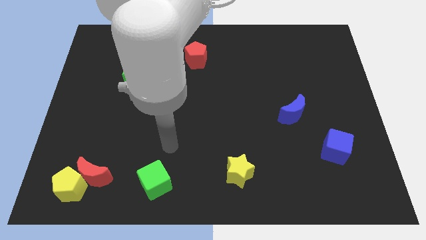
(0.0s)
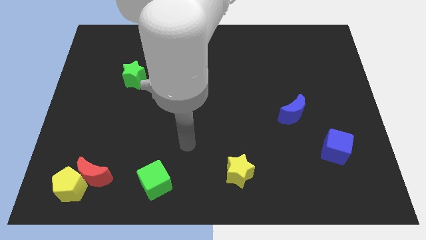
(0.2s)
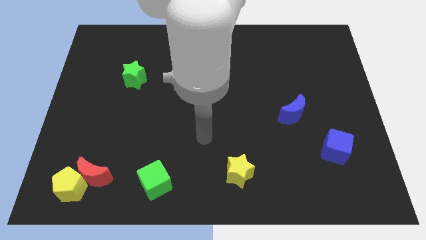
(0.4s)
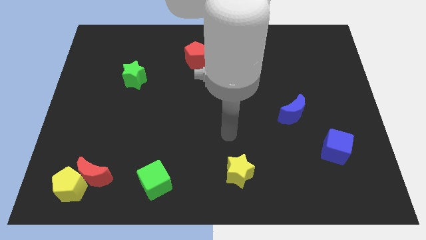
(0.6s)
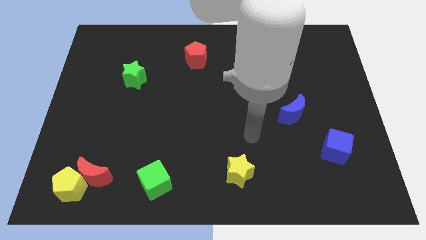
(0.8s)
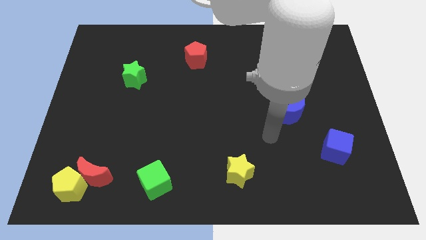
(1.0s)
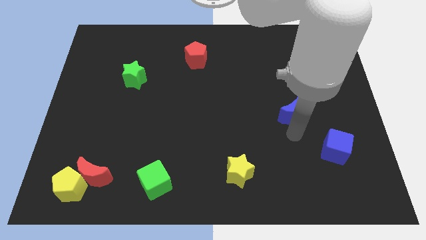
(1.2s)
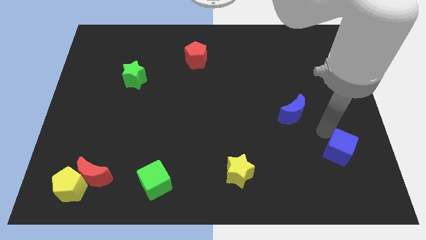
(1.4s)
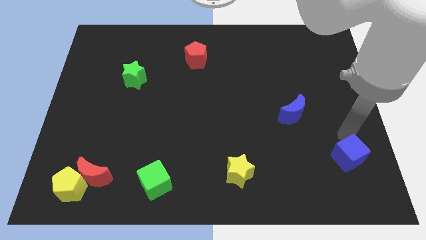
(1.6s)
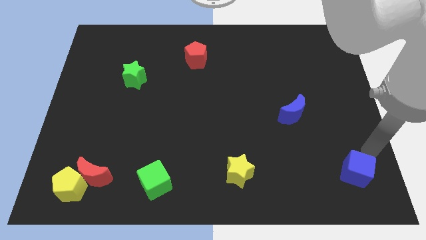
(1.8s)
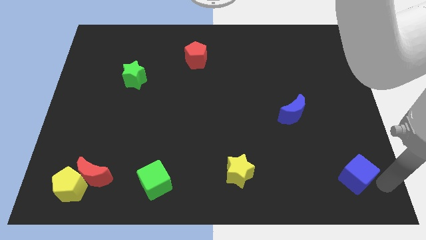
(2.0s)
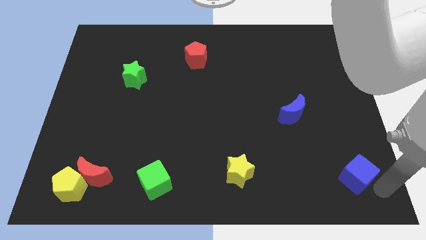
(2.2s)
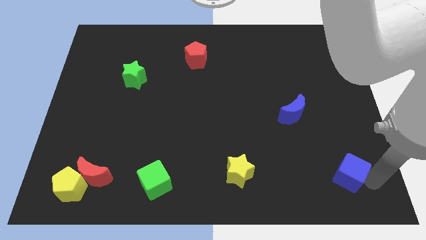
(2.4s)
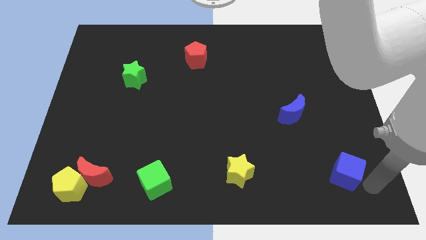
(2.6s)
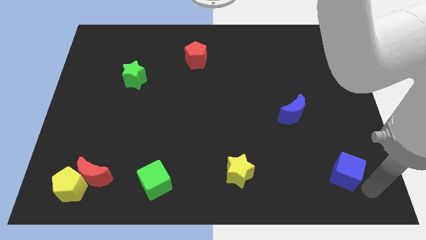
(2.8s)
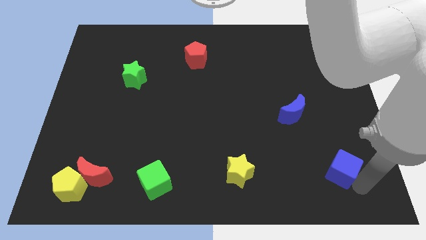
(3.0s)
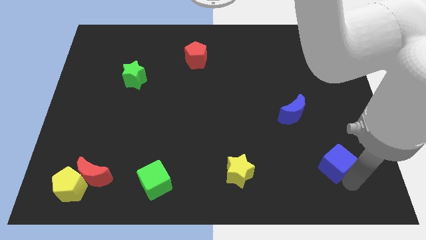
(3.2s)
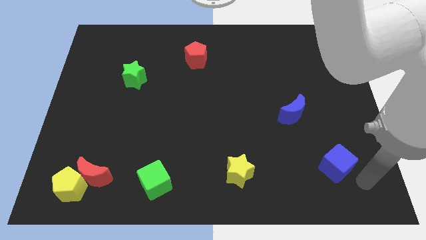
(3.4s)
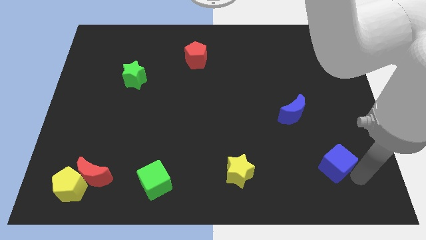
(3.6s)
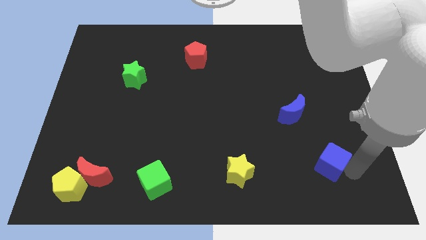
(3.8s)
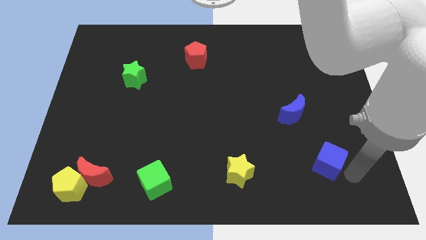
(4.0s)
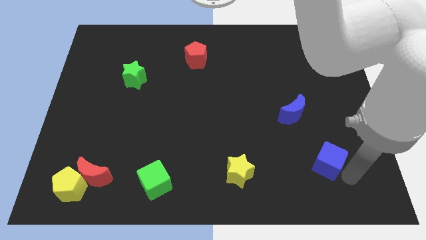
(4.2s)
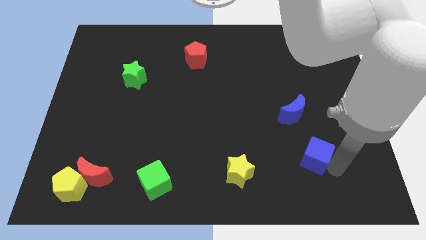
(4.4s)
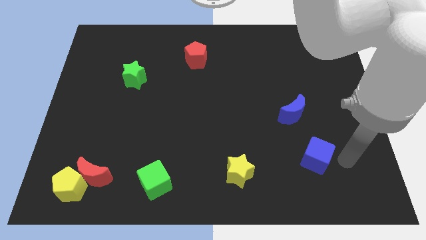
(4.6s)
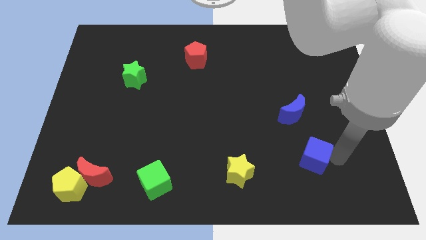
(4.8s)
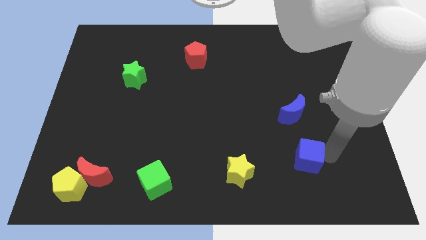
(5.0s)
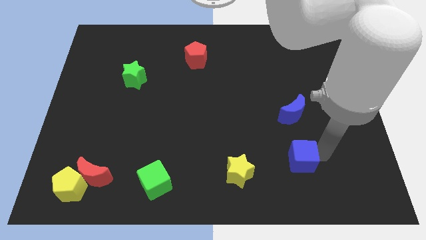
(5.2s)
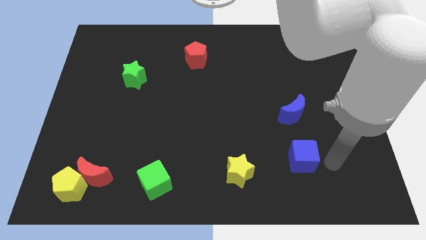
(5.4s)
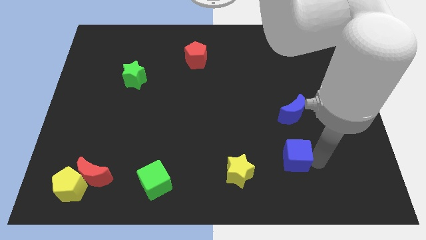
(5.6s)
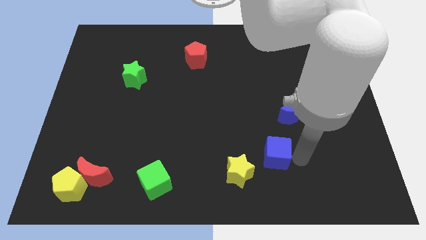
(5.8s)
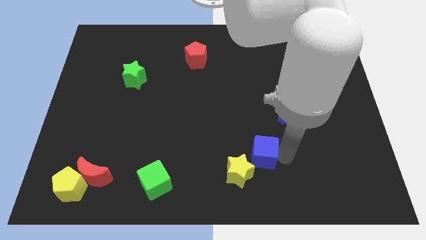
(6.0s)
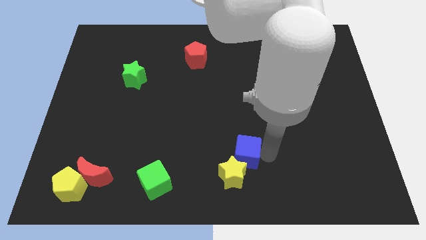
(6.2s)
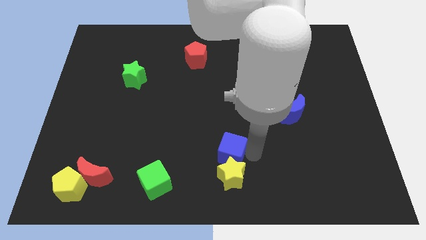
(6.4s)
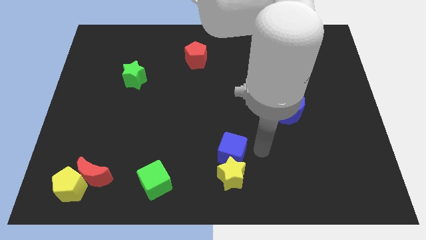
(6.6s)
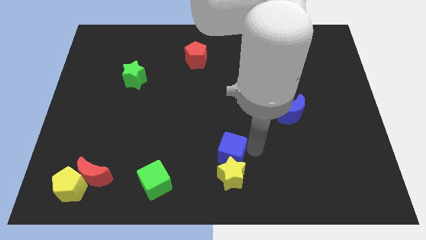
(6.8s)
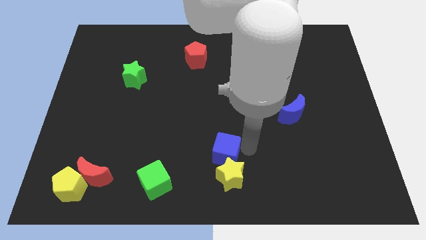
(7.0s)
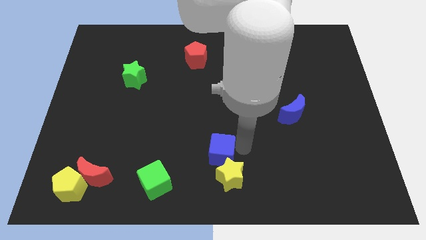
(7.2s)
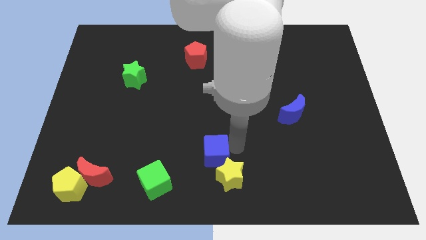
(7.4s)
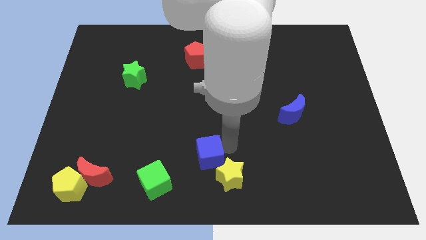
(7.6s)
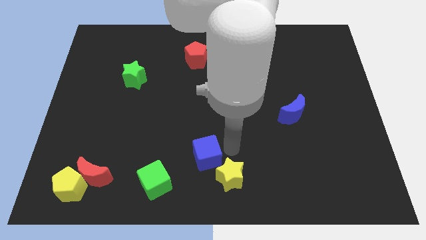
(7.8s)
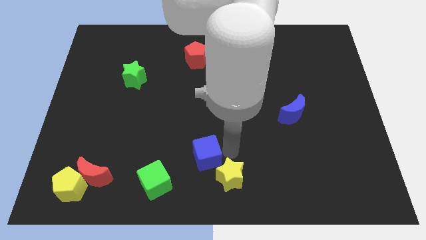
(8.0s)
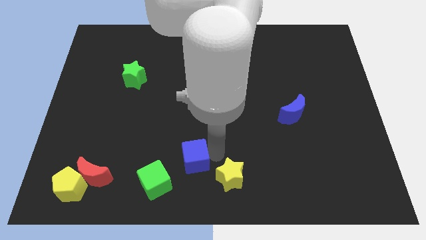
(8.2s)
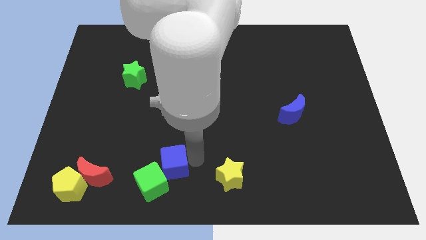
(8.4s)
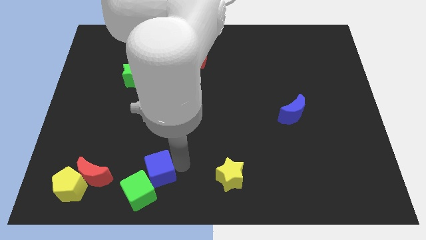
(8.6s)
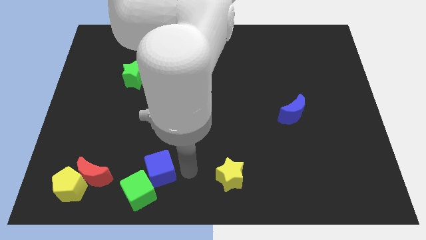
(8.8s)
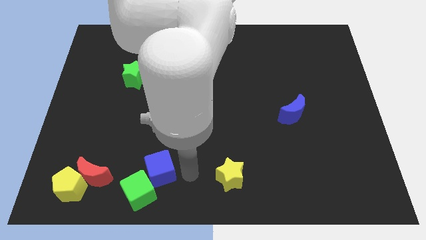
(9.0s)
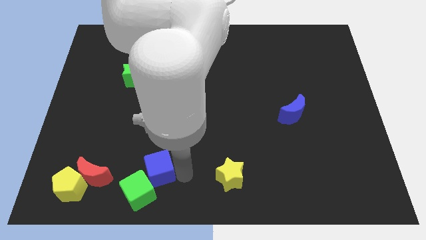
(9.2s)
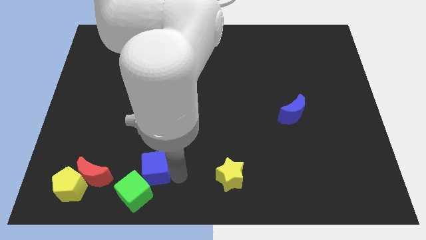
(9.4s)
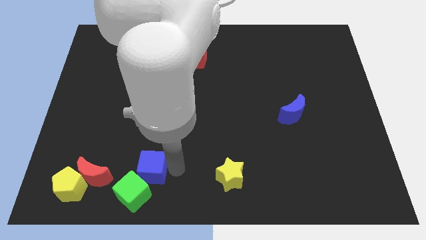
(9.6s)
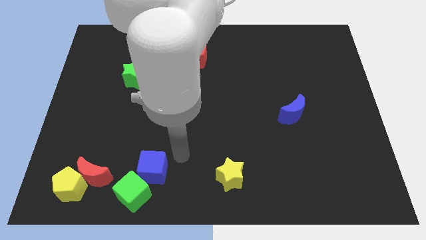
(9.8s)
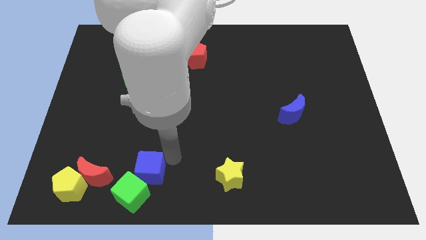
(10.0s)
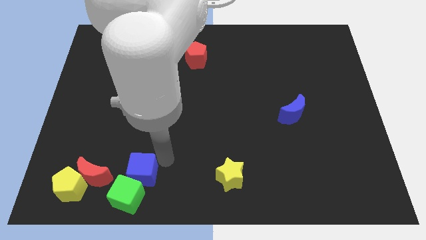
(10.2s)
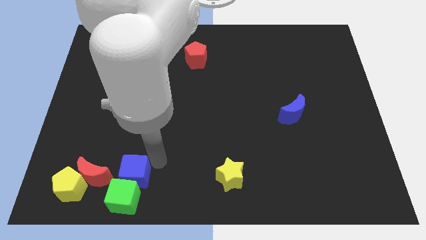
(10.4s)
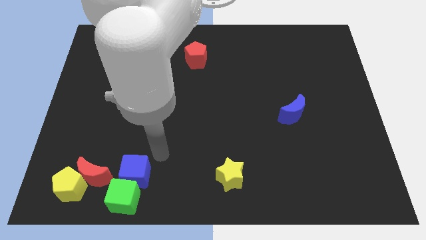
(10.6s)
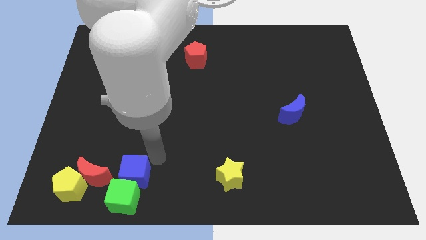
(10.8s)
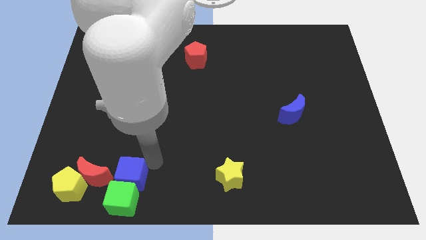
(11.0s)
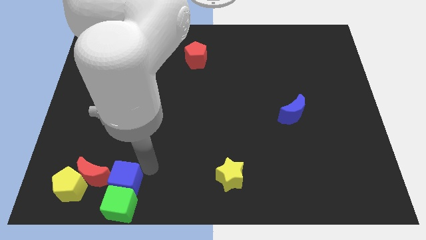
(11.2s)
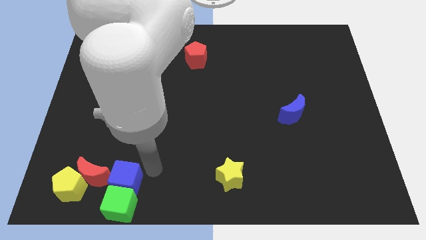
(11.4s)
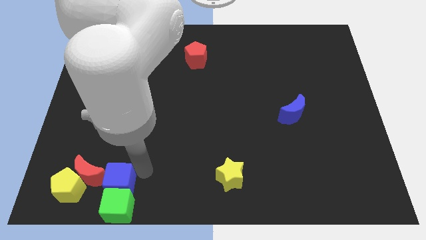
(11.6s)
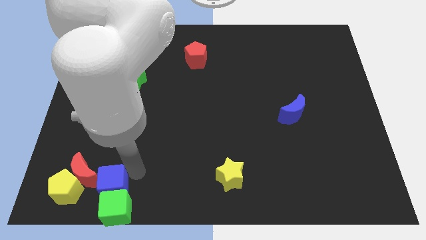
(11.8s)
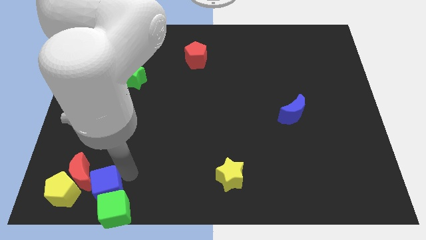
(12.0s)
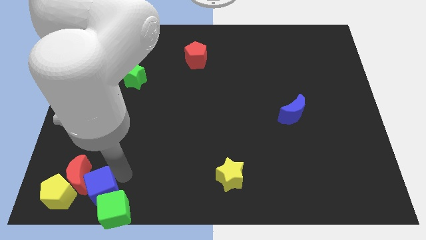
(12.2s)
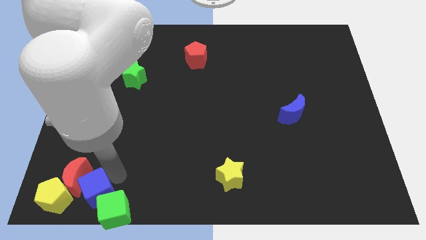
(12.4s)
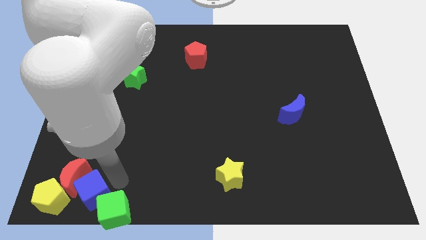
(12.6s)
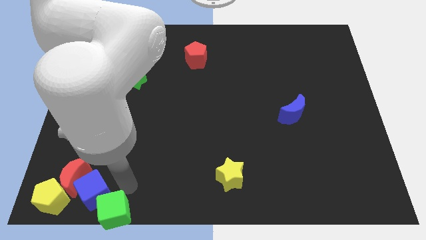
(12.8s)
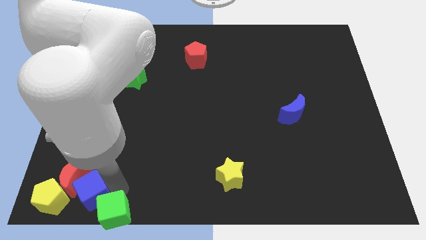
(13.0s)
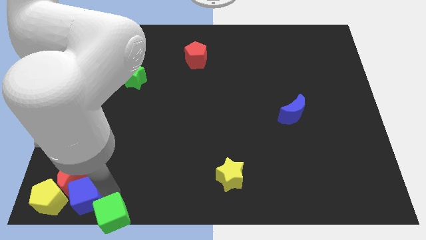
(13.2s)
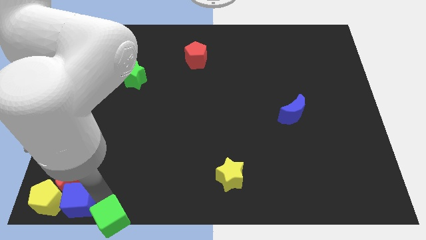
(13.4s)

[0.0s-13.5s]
move the blue cube to the yellow pentagon

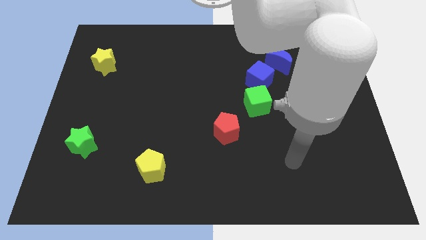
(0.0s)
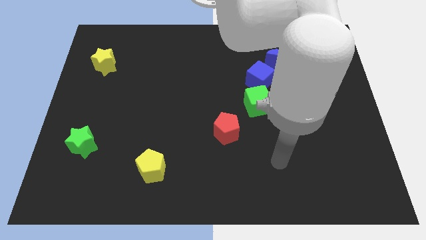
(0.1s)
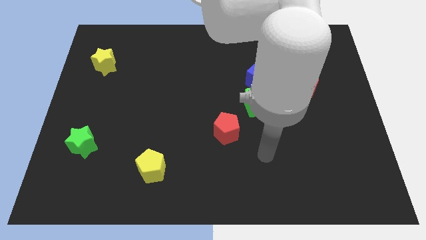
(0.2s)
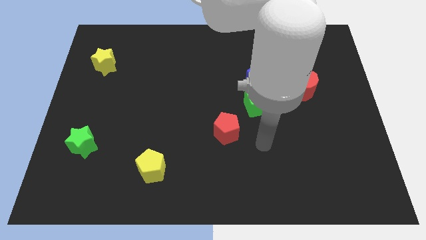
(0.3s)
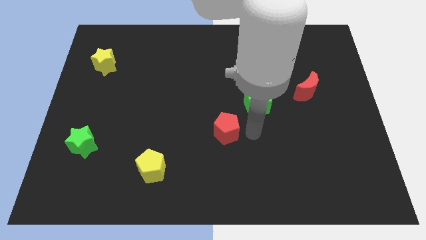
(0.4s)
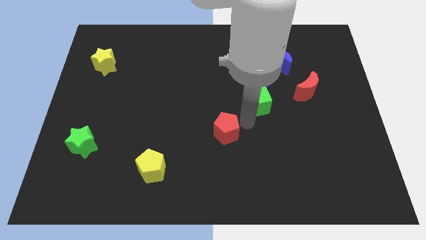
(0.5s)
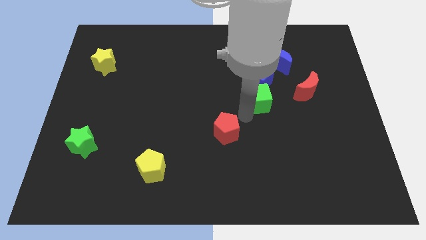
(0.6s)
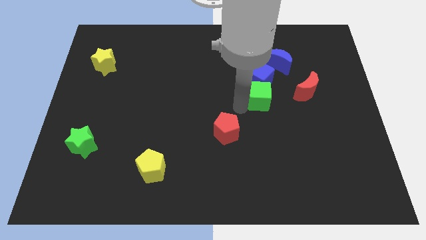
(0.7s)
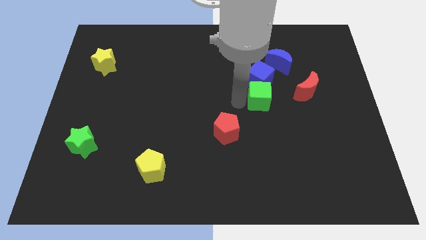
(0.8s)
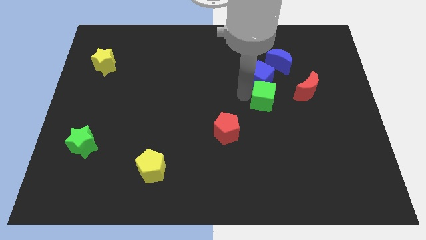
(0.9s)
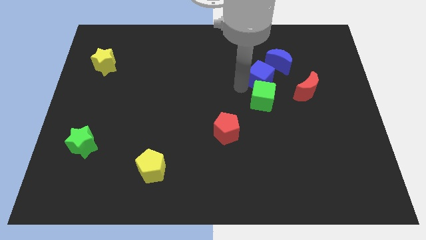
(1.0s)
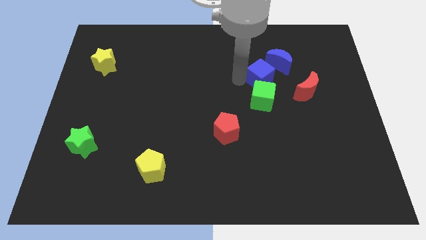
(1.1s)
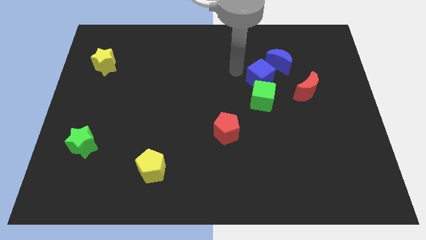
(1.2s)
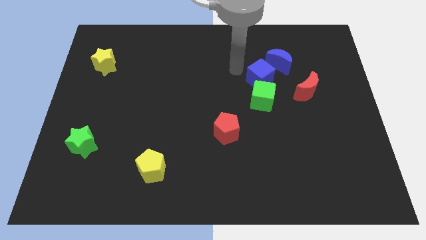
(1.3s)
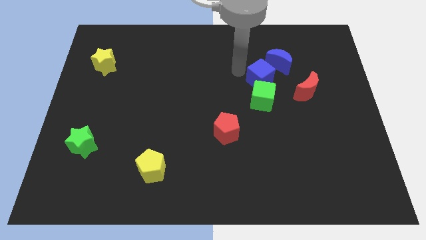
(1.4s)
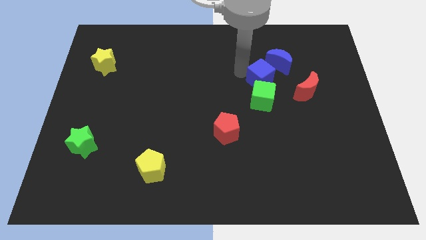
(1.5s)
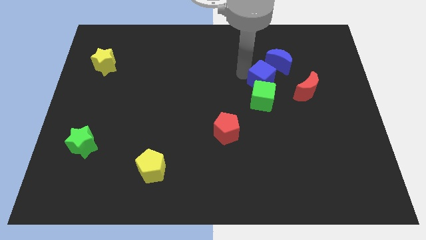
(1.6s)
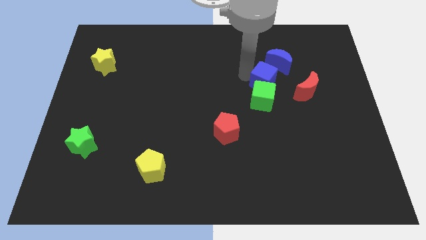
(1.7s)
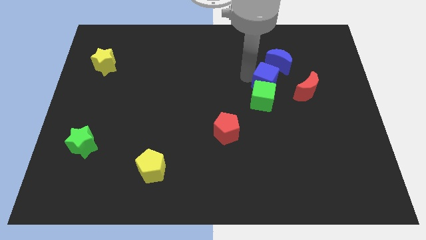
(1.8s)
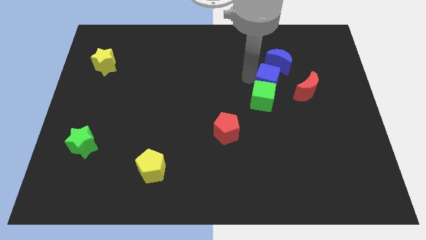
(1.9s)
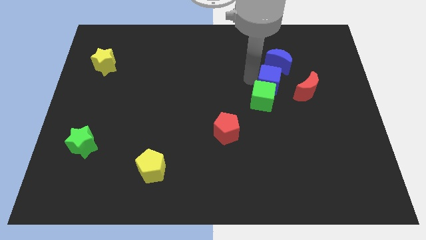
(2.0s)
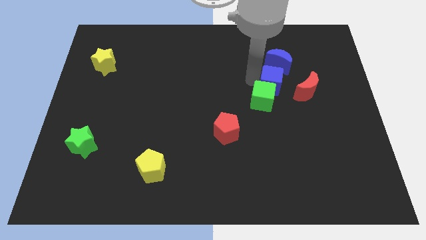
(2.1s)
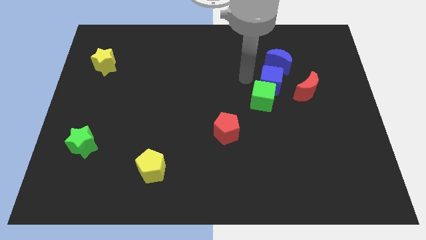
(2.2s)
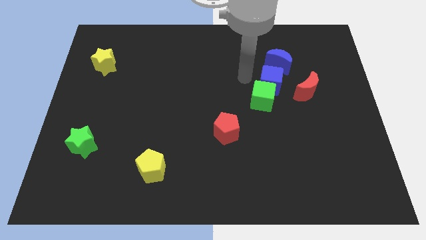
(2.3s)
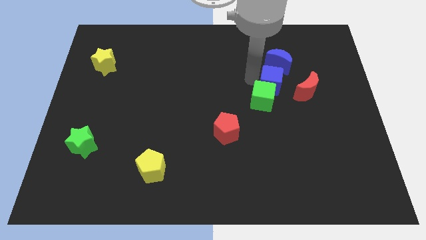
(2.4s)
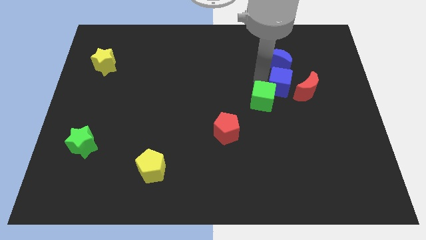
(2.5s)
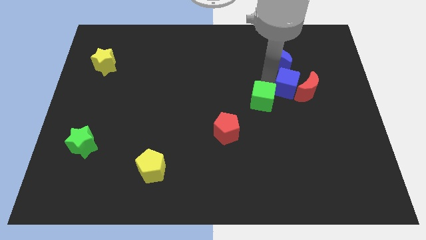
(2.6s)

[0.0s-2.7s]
put the blue cube to the red moon
